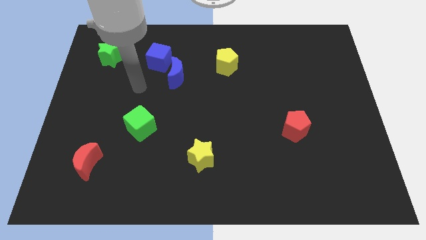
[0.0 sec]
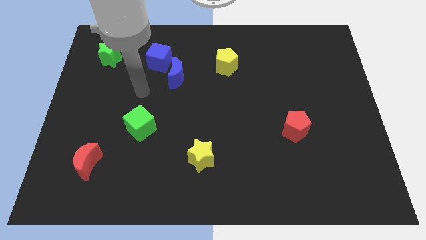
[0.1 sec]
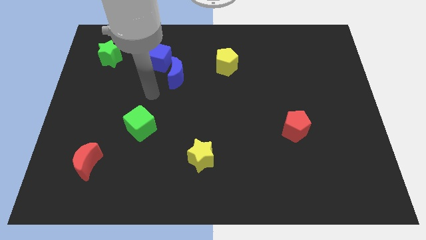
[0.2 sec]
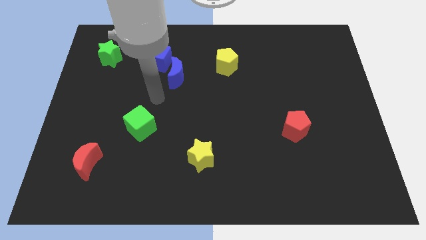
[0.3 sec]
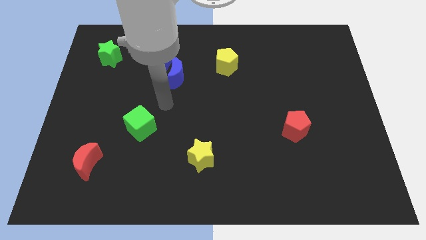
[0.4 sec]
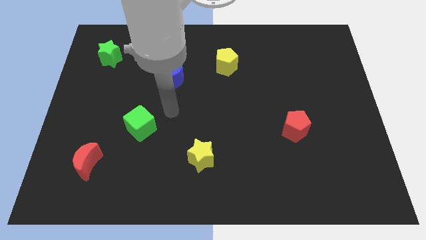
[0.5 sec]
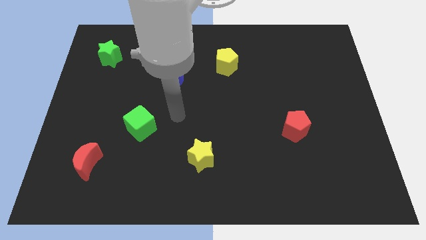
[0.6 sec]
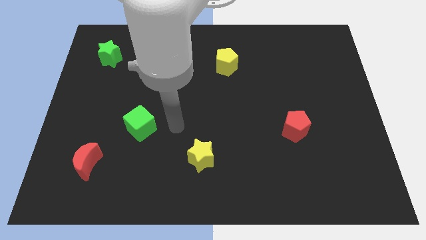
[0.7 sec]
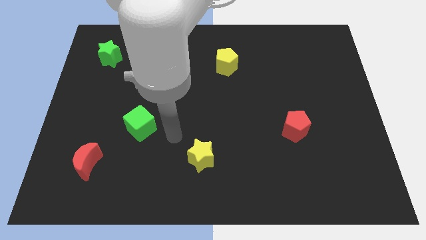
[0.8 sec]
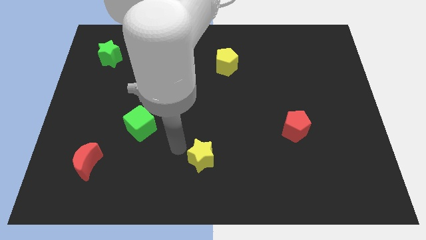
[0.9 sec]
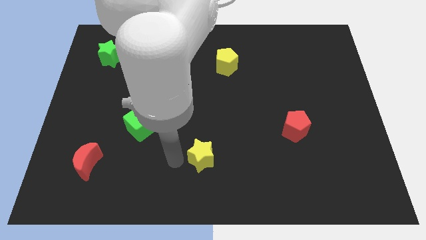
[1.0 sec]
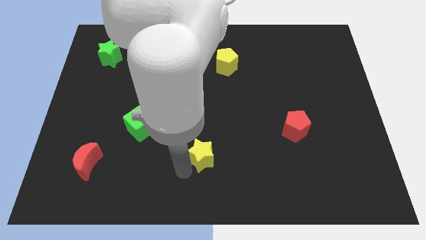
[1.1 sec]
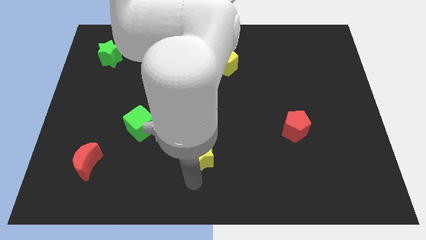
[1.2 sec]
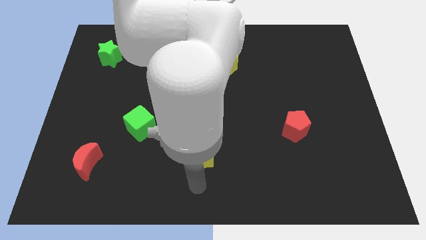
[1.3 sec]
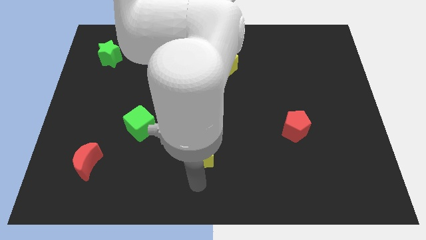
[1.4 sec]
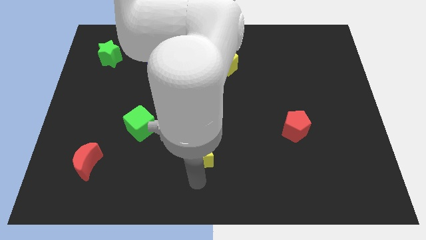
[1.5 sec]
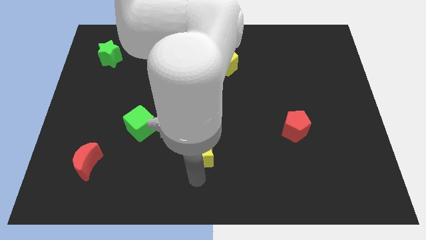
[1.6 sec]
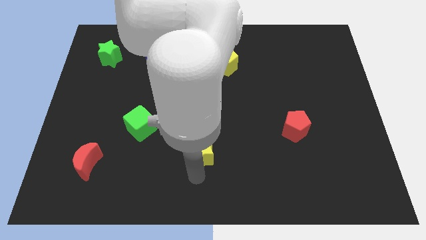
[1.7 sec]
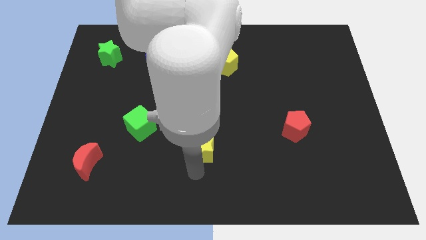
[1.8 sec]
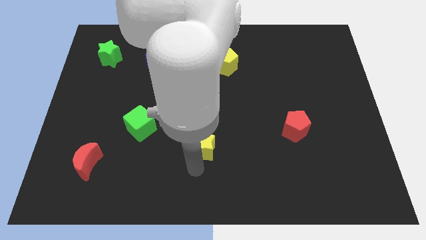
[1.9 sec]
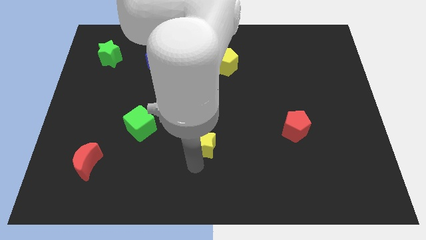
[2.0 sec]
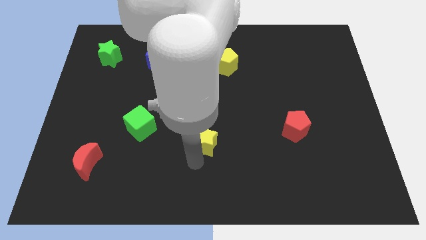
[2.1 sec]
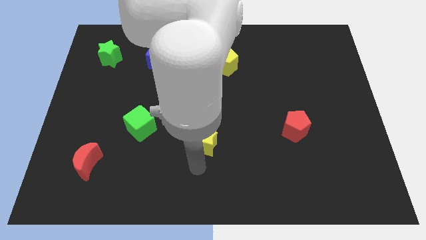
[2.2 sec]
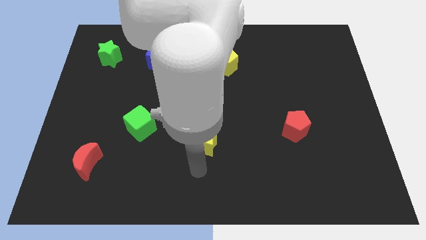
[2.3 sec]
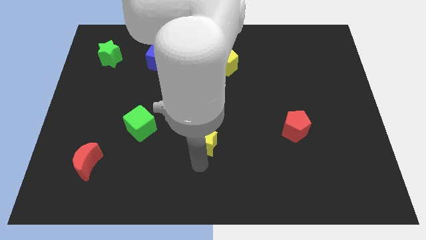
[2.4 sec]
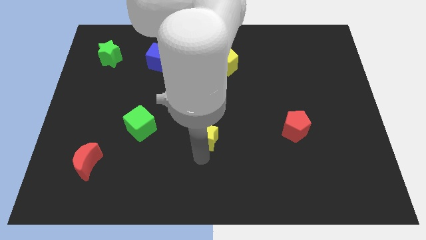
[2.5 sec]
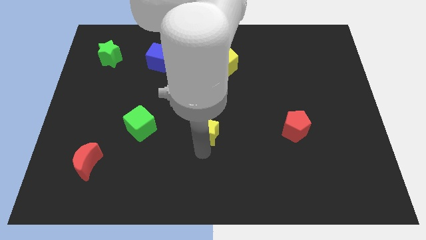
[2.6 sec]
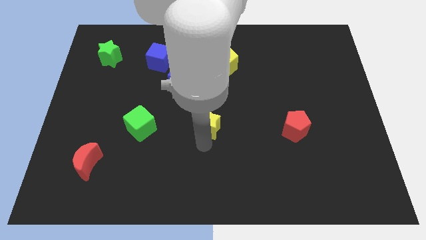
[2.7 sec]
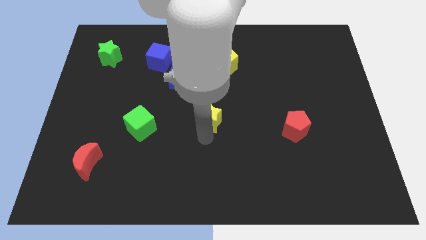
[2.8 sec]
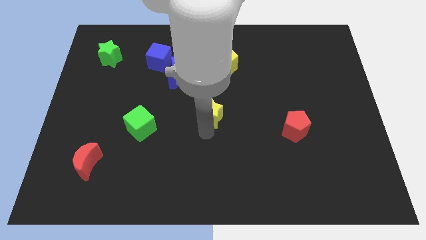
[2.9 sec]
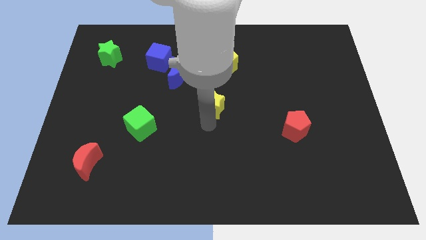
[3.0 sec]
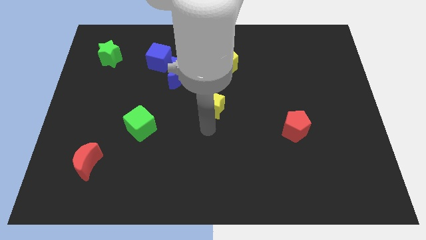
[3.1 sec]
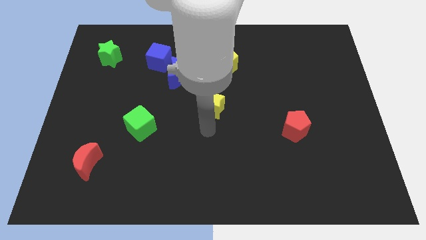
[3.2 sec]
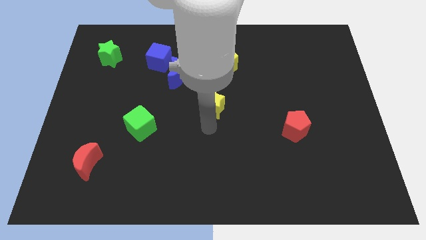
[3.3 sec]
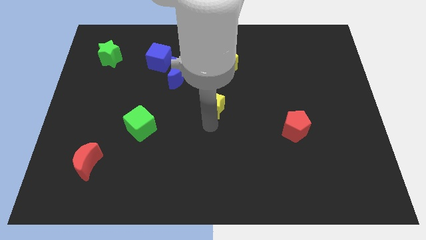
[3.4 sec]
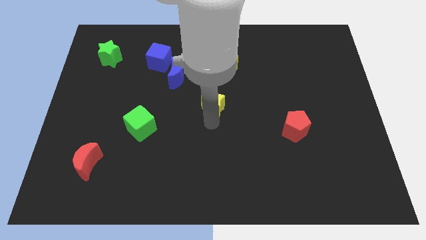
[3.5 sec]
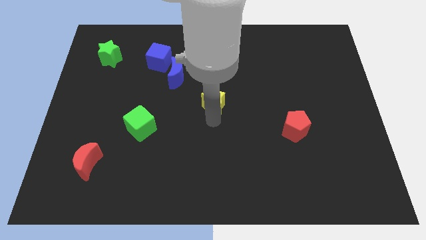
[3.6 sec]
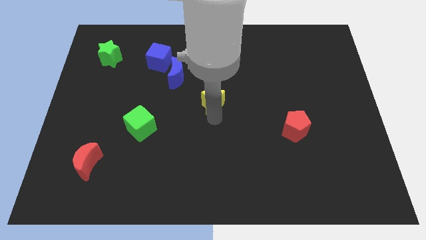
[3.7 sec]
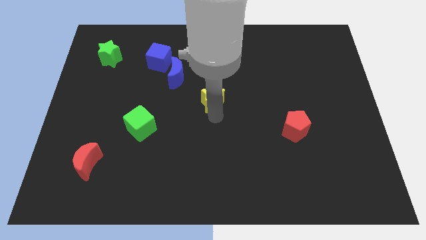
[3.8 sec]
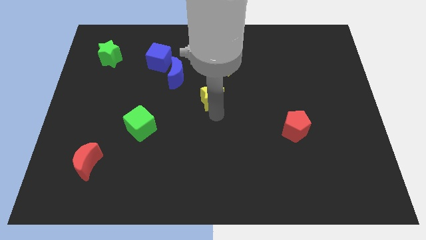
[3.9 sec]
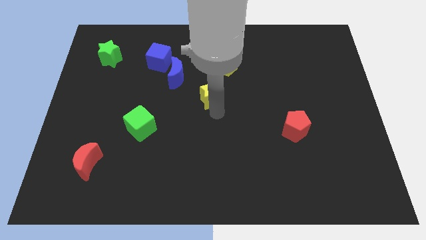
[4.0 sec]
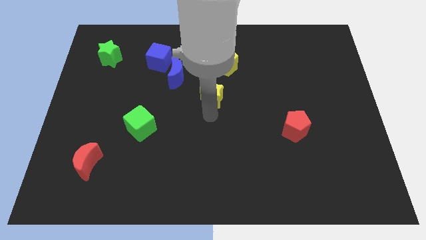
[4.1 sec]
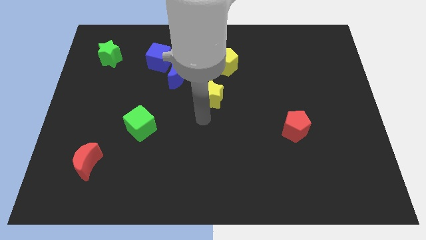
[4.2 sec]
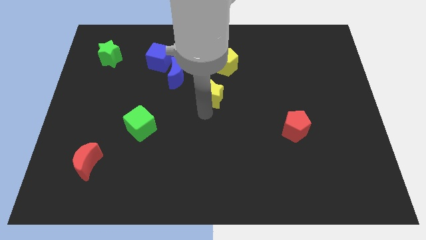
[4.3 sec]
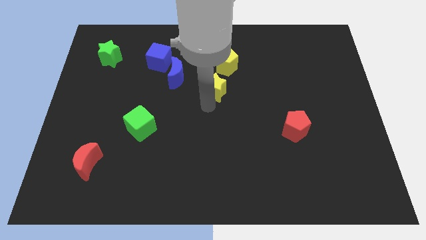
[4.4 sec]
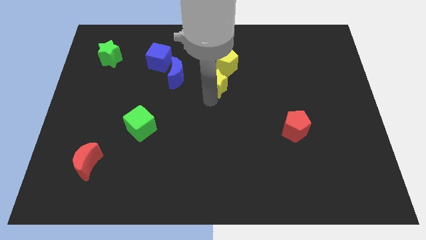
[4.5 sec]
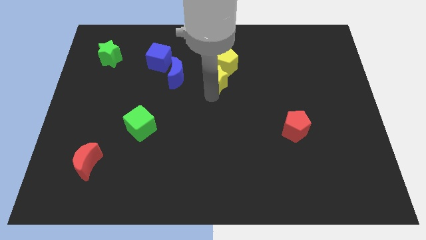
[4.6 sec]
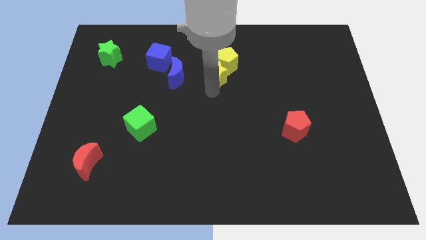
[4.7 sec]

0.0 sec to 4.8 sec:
put the yellow star close to the yellow pentagon

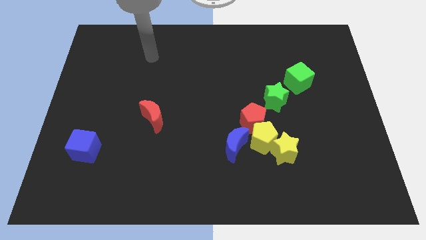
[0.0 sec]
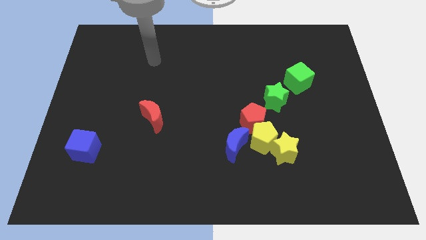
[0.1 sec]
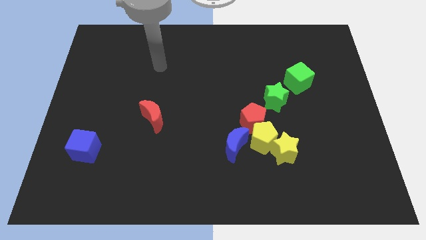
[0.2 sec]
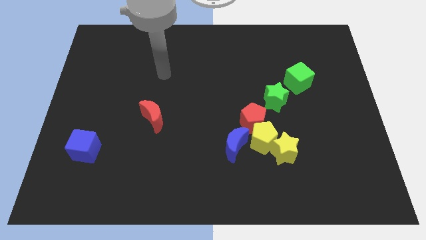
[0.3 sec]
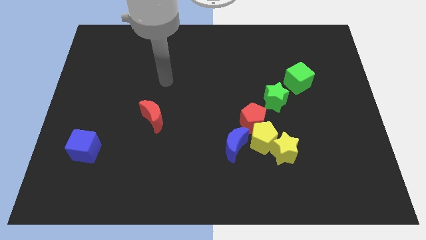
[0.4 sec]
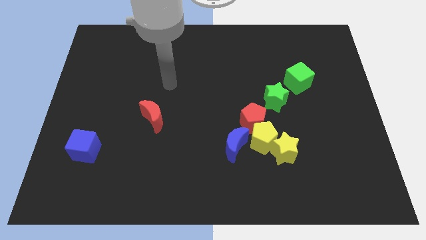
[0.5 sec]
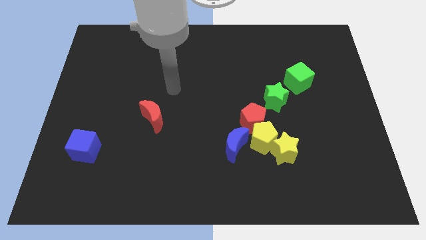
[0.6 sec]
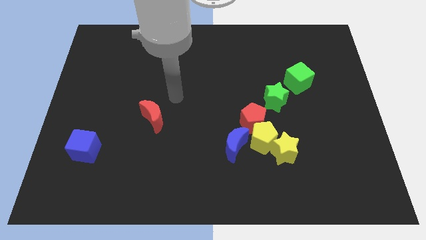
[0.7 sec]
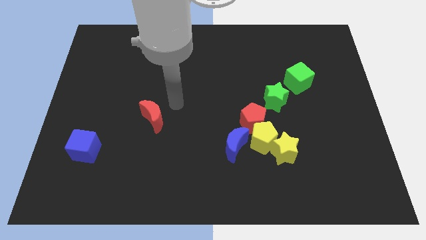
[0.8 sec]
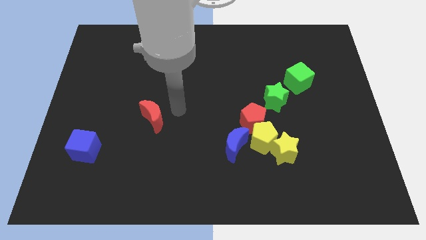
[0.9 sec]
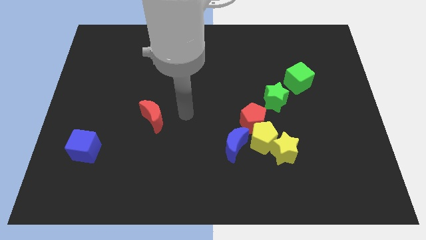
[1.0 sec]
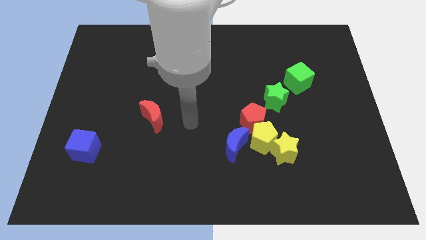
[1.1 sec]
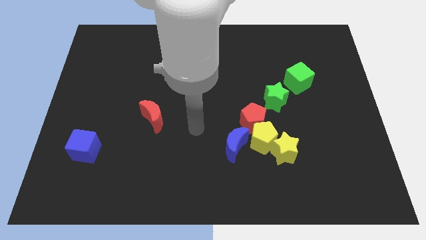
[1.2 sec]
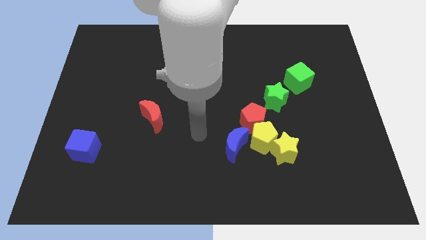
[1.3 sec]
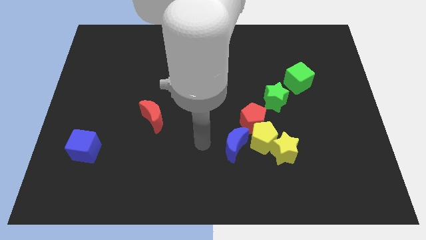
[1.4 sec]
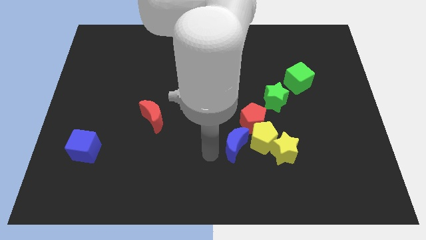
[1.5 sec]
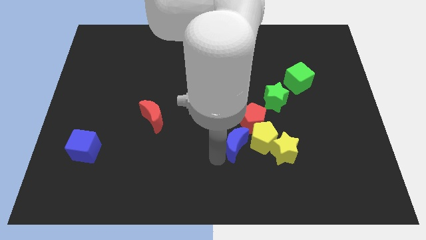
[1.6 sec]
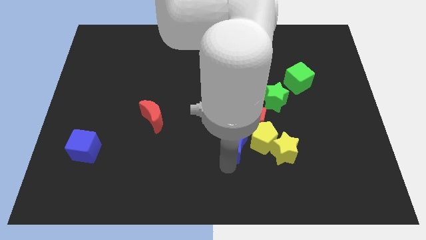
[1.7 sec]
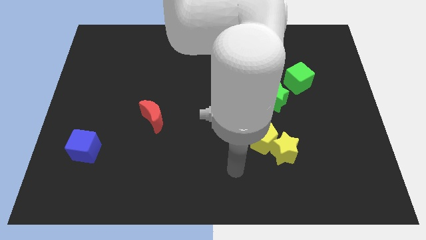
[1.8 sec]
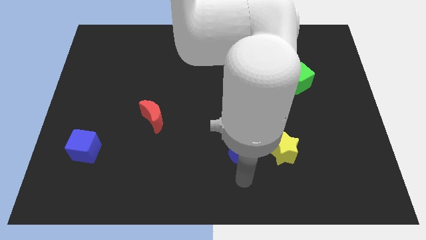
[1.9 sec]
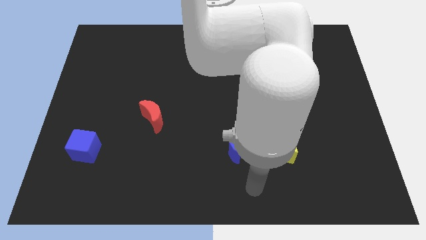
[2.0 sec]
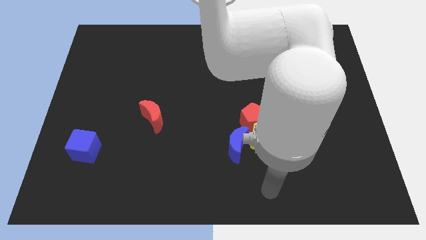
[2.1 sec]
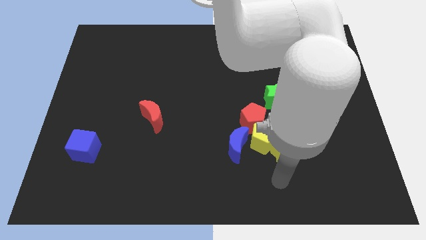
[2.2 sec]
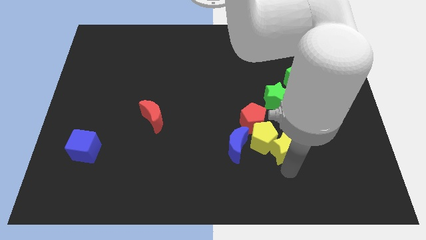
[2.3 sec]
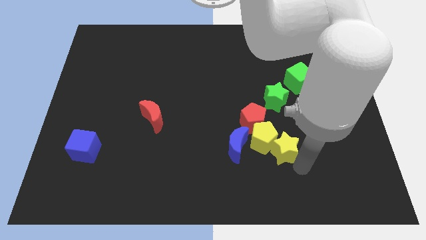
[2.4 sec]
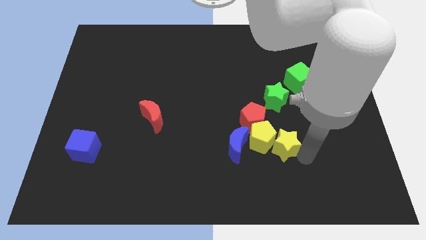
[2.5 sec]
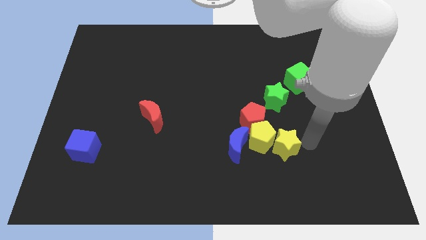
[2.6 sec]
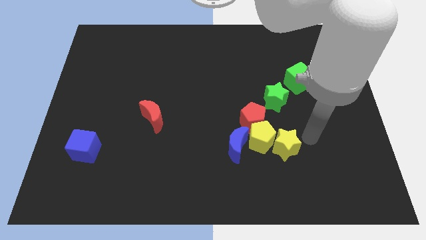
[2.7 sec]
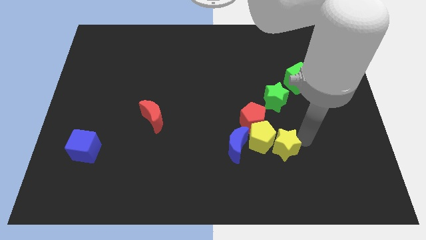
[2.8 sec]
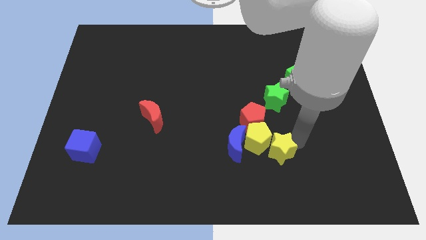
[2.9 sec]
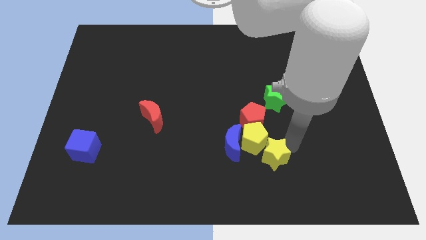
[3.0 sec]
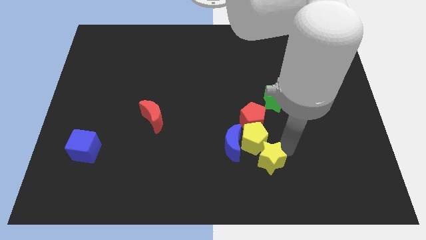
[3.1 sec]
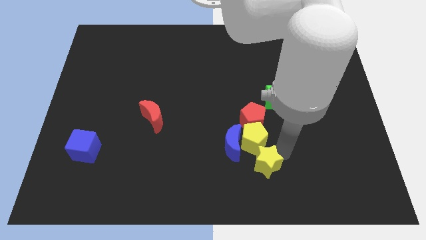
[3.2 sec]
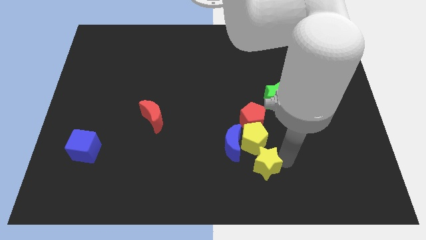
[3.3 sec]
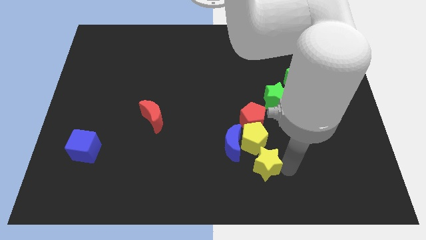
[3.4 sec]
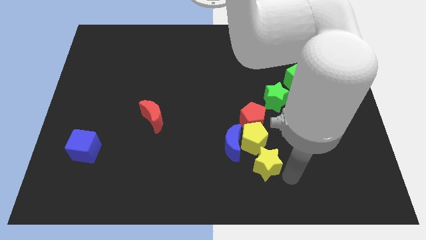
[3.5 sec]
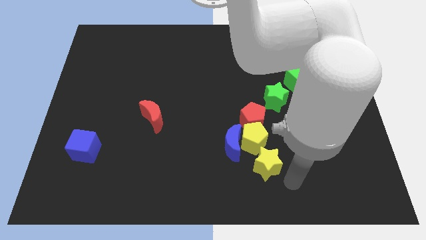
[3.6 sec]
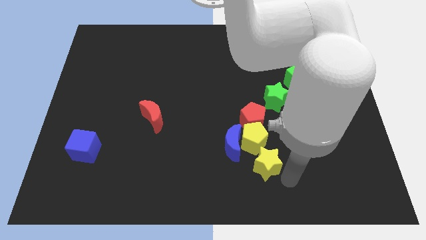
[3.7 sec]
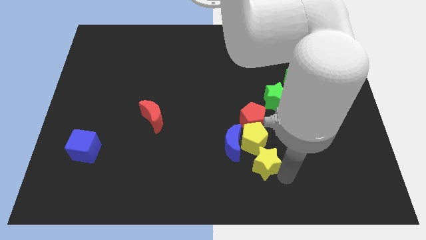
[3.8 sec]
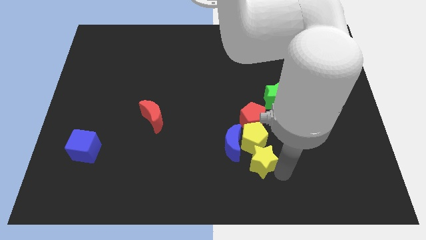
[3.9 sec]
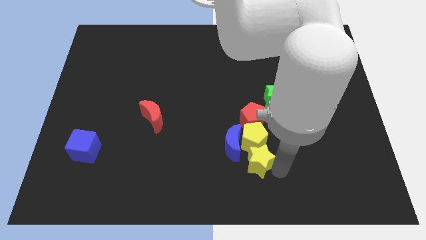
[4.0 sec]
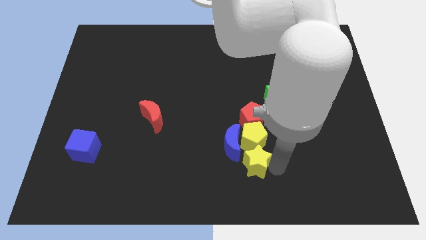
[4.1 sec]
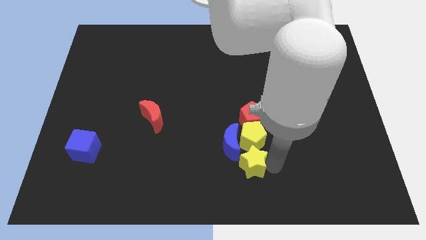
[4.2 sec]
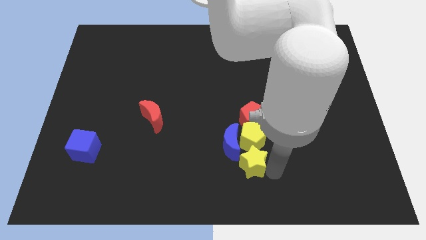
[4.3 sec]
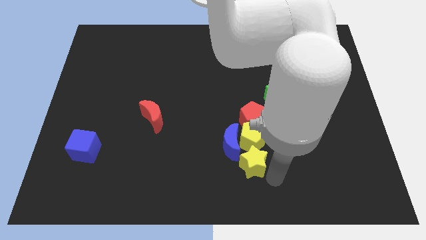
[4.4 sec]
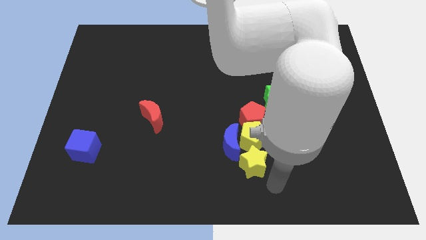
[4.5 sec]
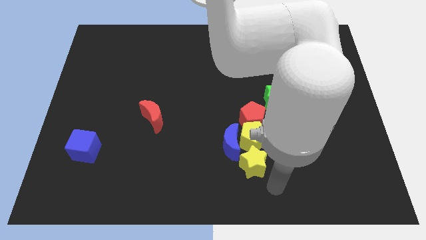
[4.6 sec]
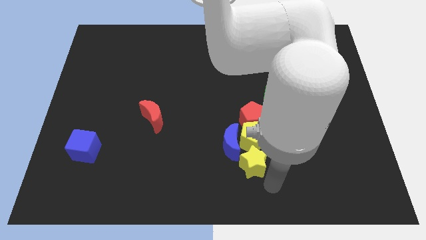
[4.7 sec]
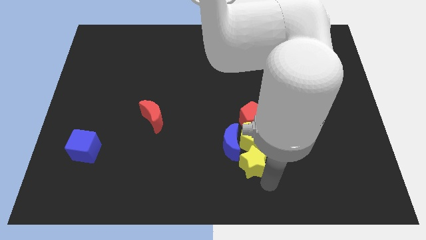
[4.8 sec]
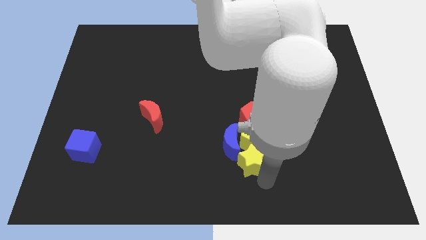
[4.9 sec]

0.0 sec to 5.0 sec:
slide the yellow star towards the blue moon
